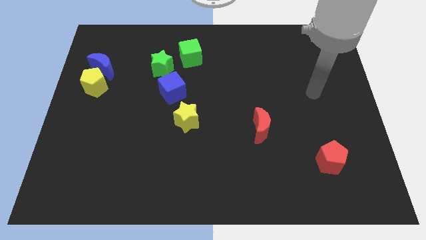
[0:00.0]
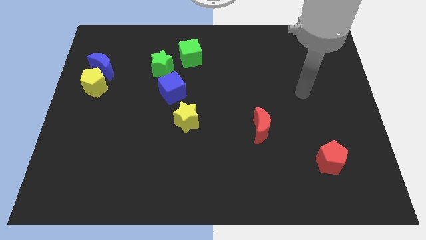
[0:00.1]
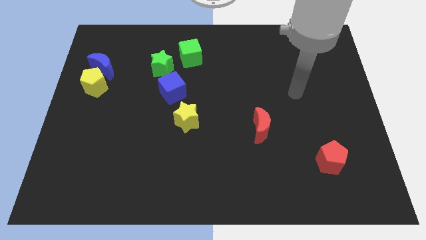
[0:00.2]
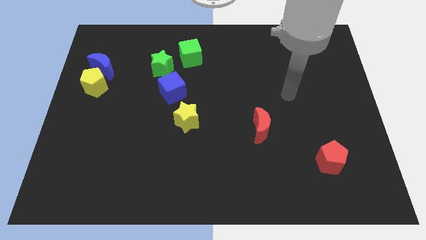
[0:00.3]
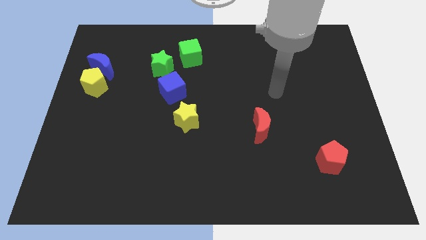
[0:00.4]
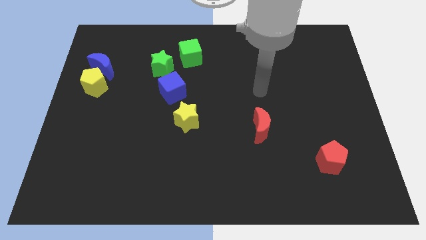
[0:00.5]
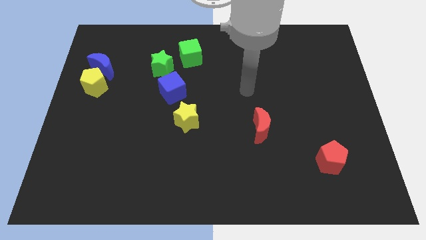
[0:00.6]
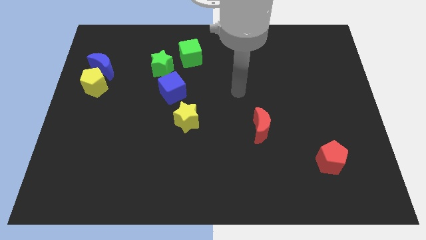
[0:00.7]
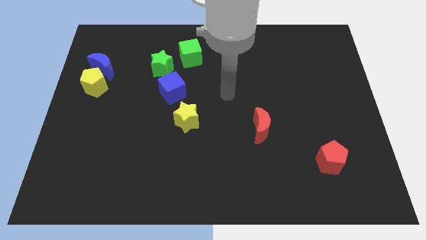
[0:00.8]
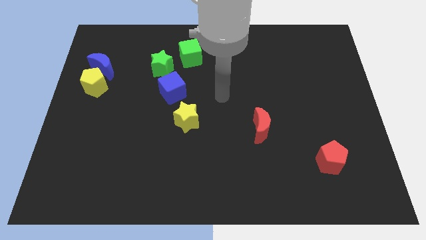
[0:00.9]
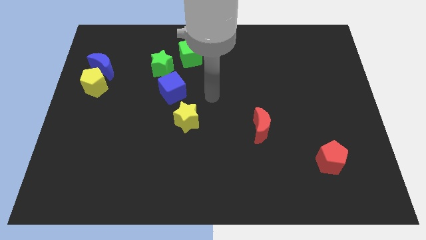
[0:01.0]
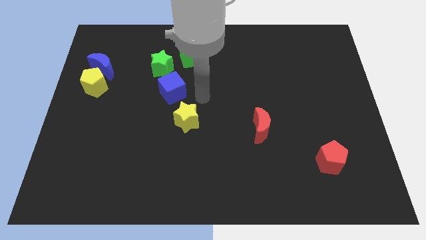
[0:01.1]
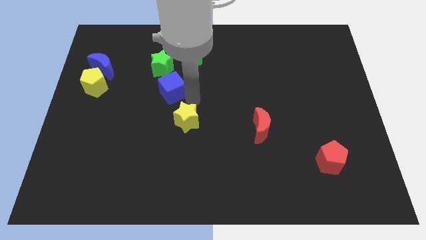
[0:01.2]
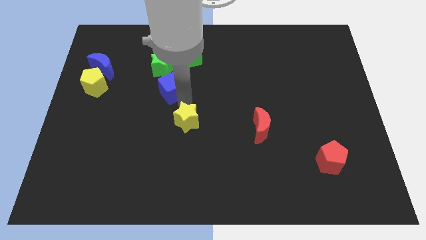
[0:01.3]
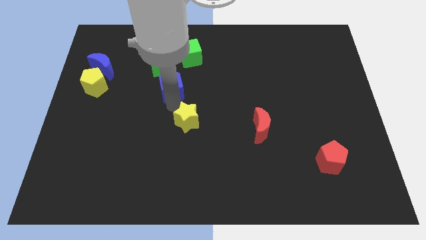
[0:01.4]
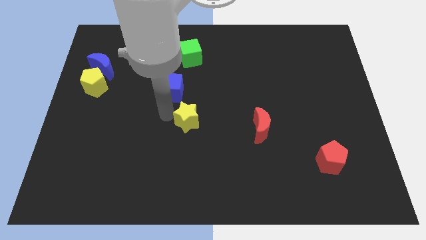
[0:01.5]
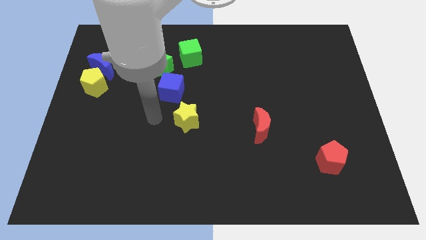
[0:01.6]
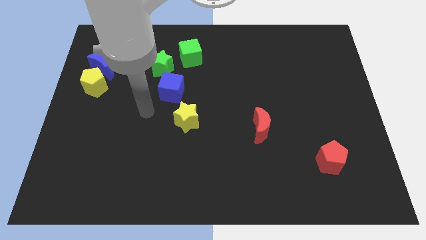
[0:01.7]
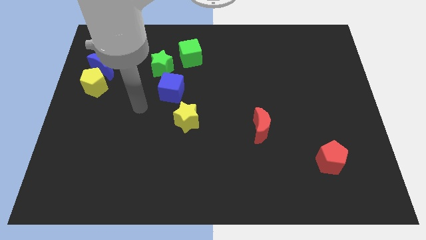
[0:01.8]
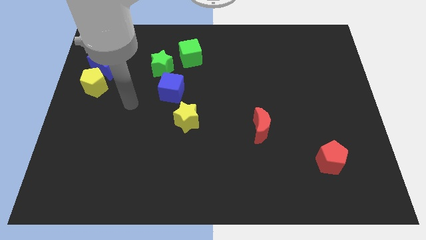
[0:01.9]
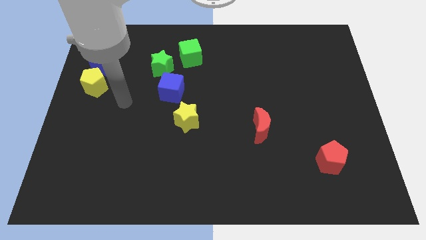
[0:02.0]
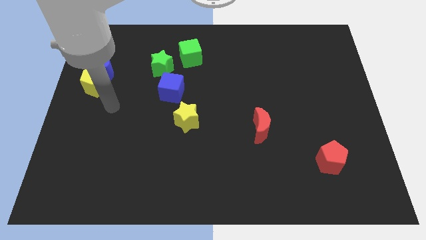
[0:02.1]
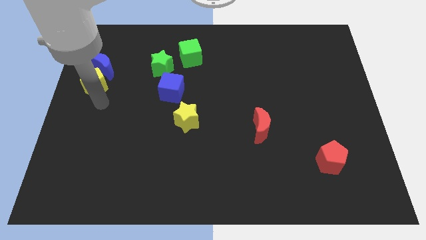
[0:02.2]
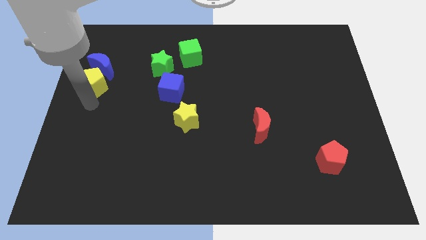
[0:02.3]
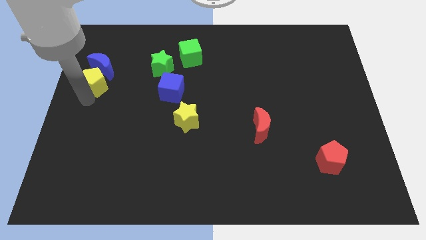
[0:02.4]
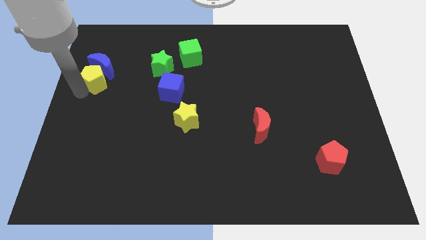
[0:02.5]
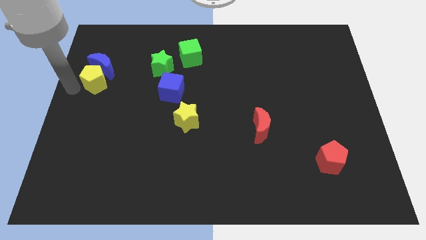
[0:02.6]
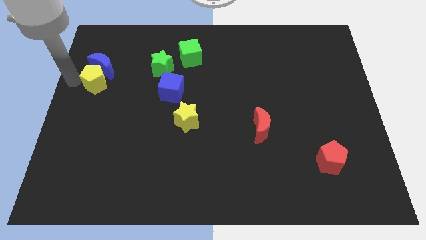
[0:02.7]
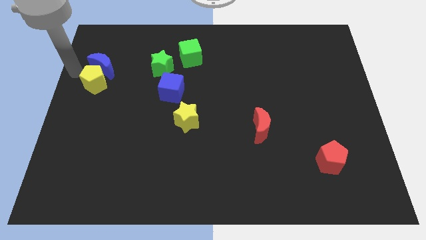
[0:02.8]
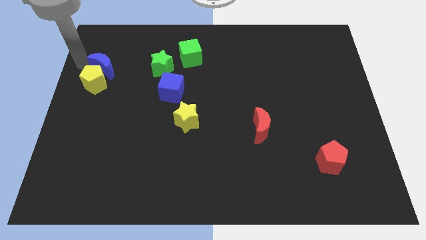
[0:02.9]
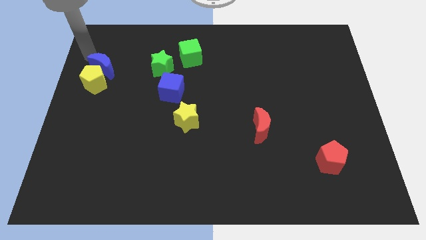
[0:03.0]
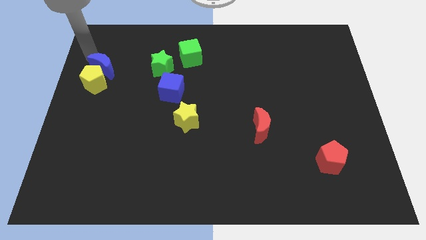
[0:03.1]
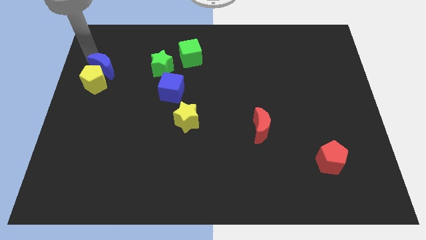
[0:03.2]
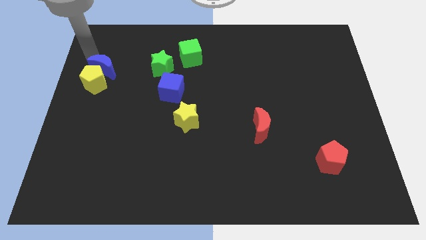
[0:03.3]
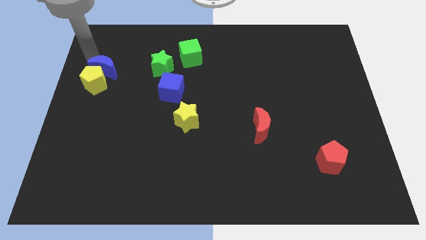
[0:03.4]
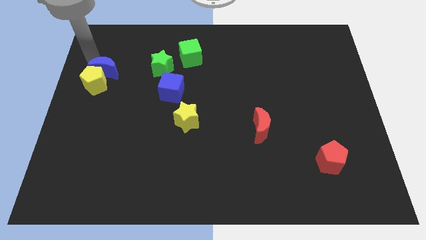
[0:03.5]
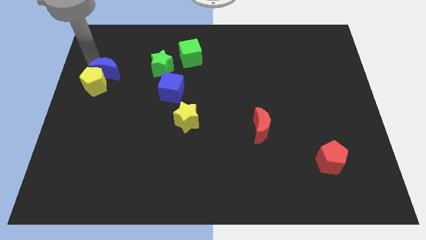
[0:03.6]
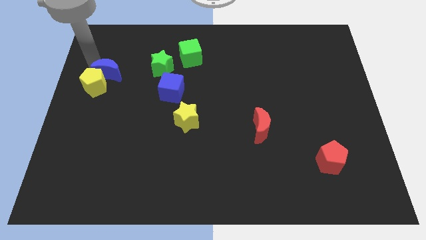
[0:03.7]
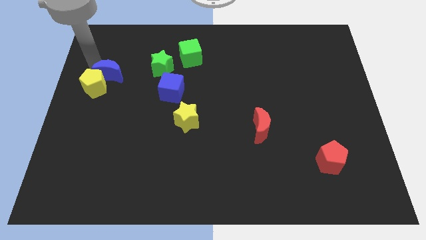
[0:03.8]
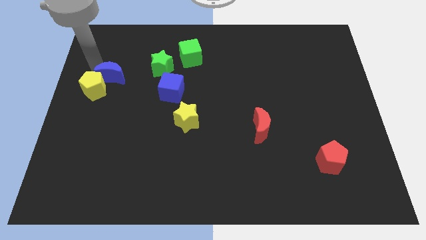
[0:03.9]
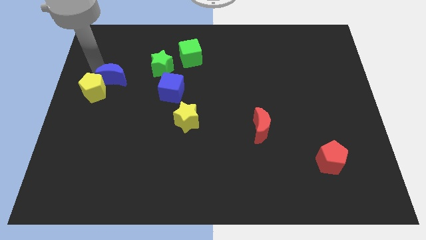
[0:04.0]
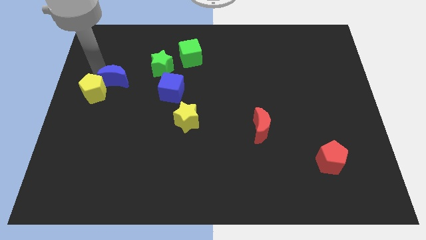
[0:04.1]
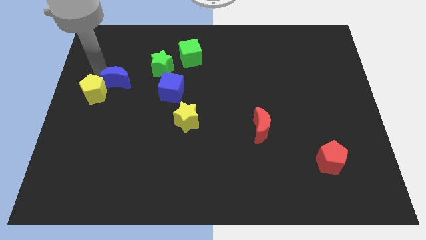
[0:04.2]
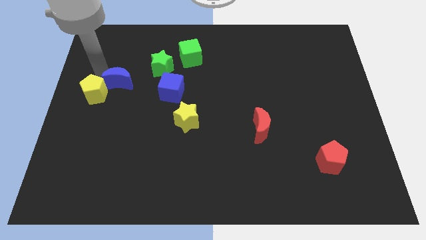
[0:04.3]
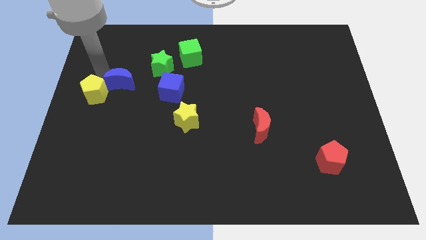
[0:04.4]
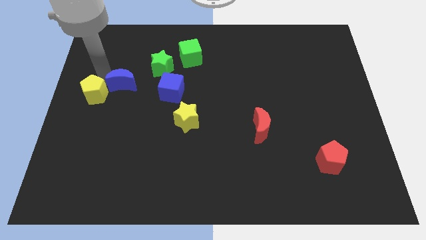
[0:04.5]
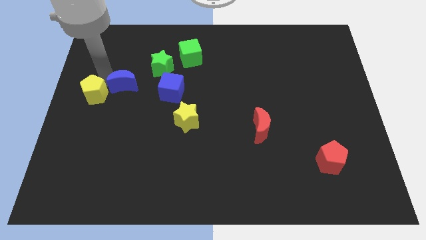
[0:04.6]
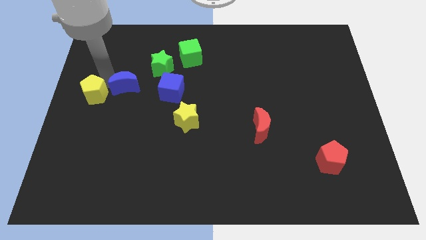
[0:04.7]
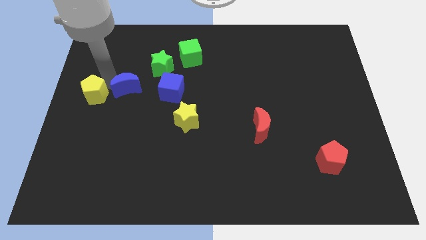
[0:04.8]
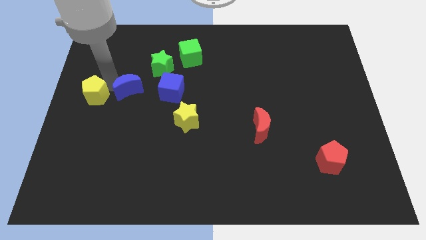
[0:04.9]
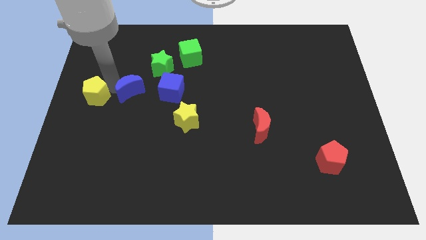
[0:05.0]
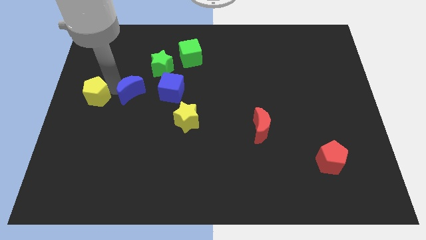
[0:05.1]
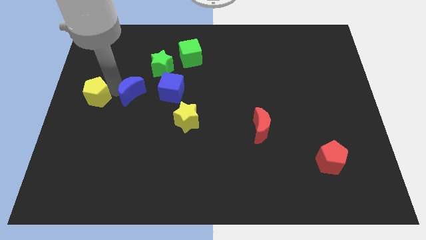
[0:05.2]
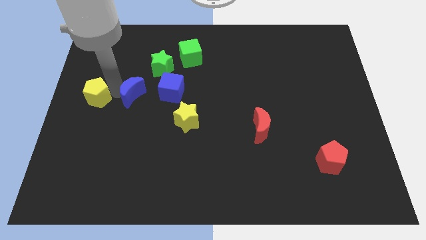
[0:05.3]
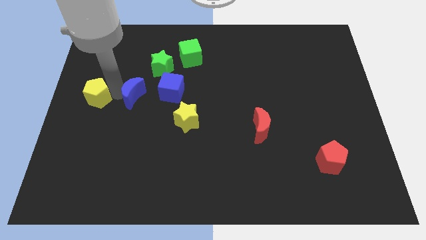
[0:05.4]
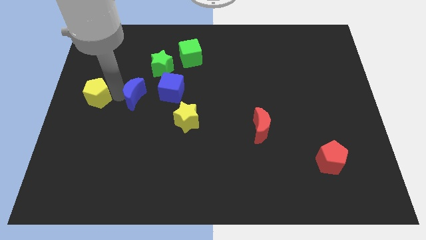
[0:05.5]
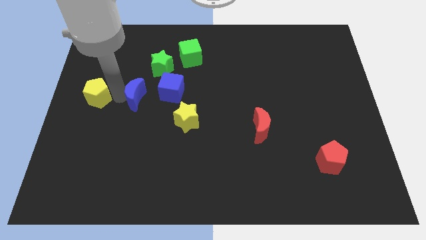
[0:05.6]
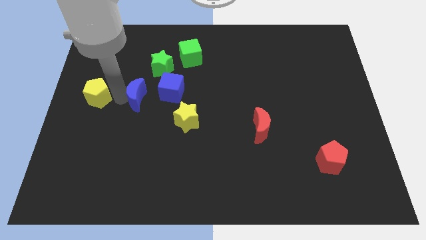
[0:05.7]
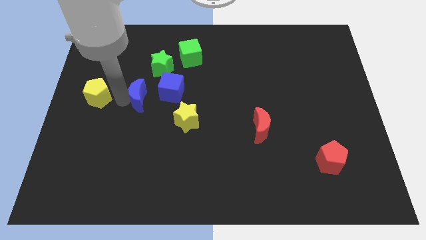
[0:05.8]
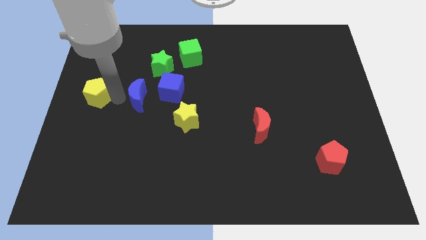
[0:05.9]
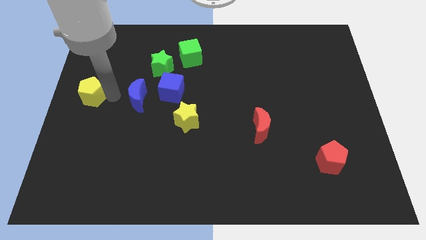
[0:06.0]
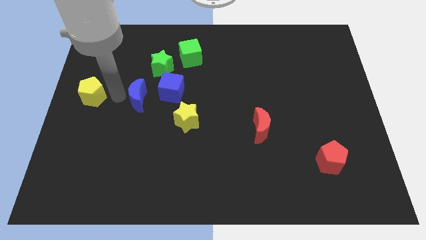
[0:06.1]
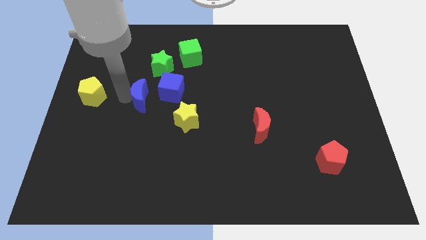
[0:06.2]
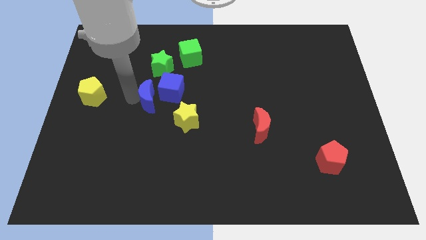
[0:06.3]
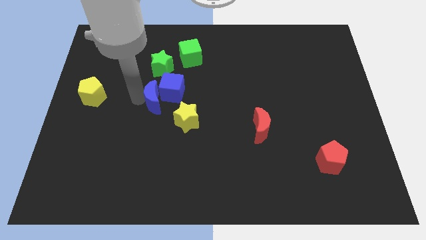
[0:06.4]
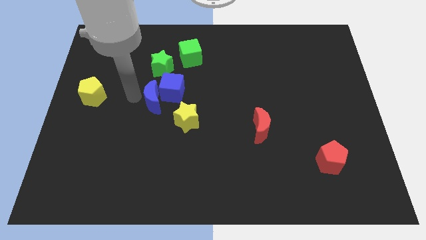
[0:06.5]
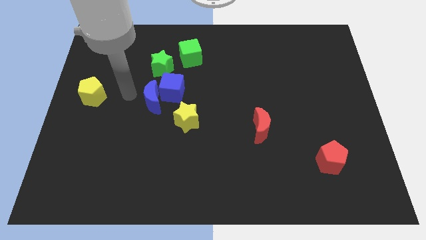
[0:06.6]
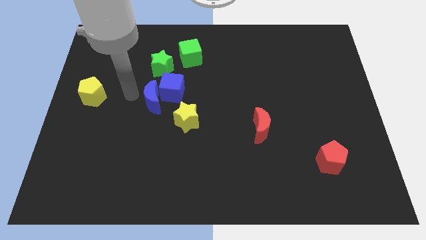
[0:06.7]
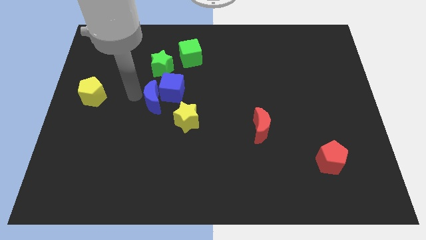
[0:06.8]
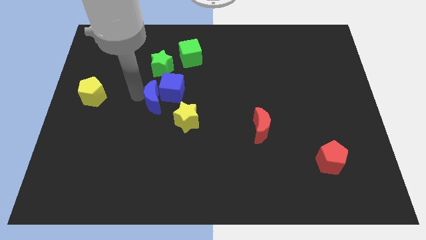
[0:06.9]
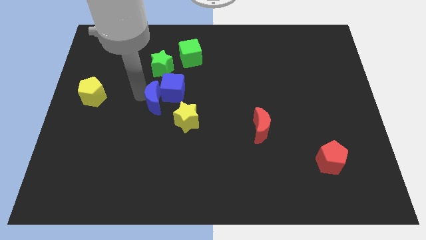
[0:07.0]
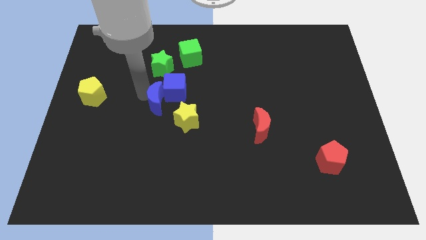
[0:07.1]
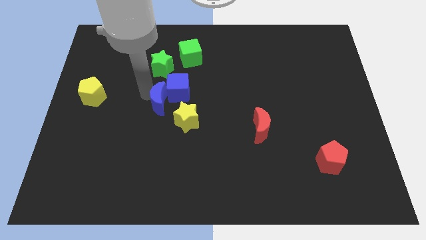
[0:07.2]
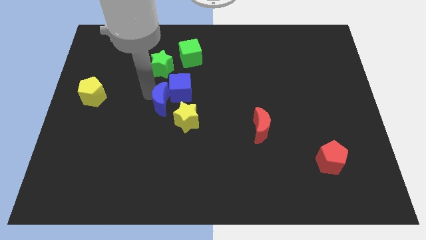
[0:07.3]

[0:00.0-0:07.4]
slide the blue moon to the center of the board
